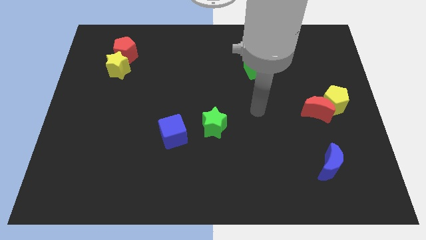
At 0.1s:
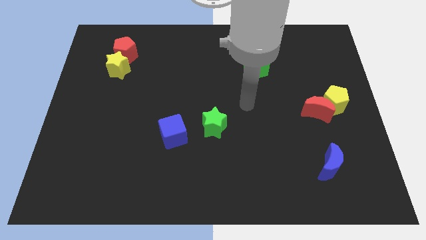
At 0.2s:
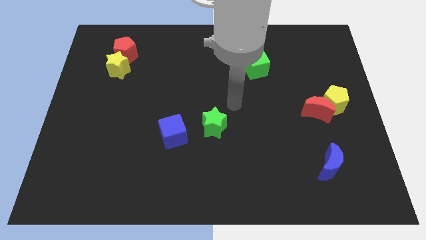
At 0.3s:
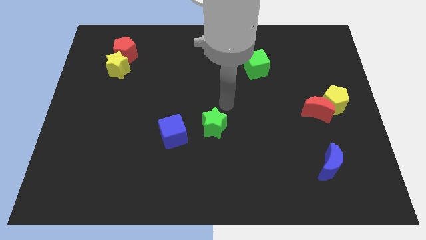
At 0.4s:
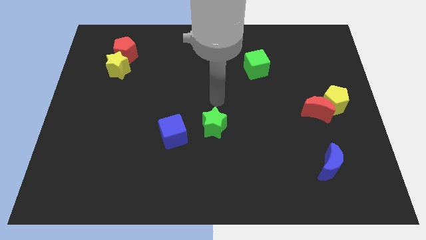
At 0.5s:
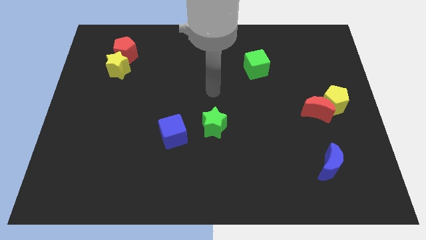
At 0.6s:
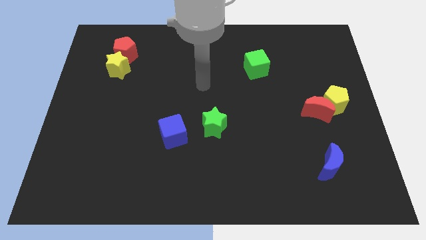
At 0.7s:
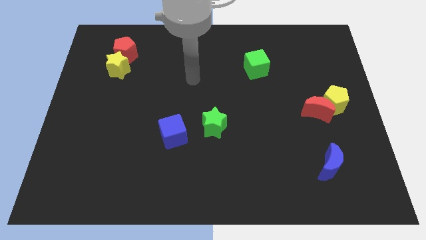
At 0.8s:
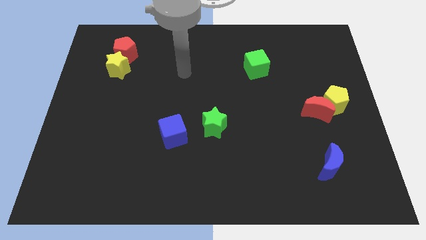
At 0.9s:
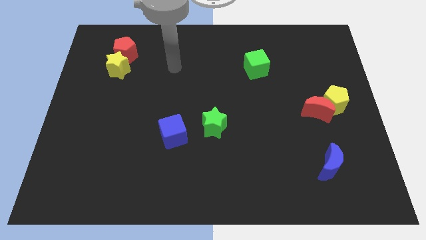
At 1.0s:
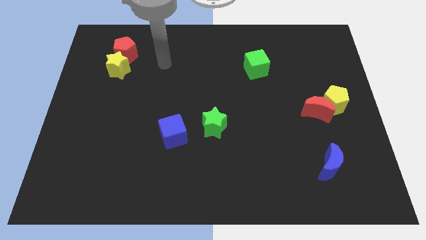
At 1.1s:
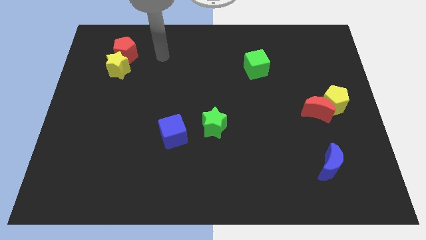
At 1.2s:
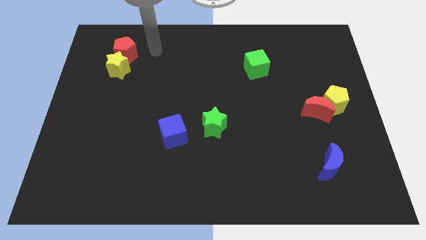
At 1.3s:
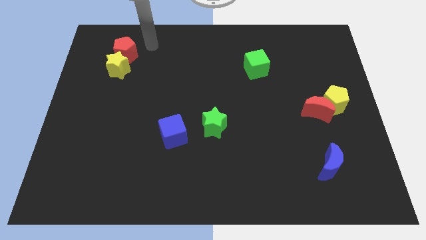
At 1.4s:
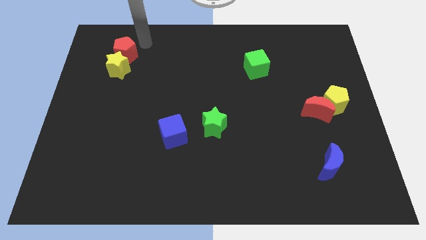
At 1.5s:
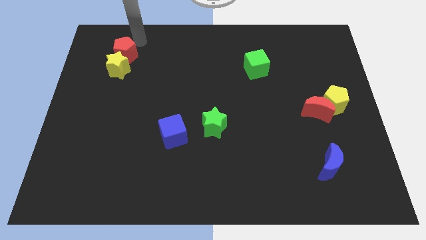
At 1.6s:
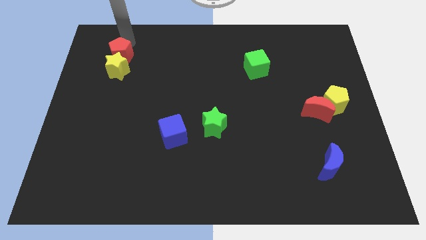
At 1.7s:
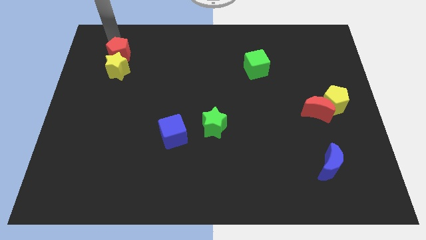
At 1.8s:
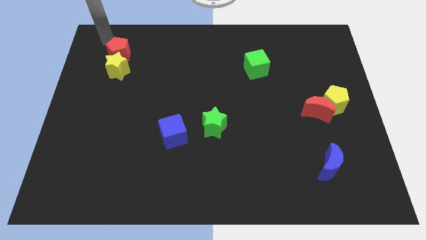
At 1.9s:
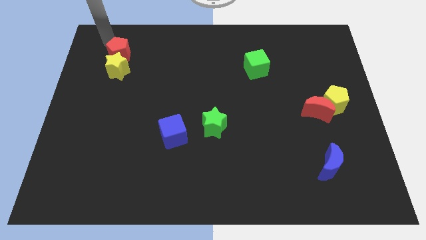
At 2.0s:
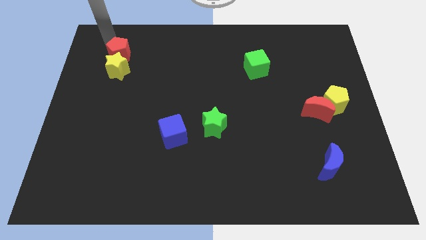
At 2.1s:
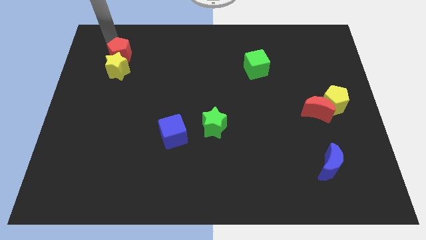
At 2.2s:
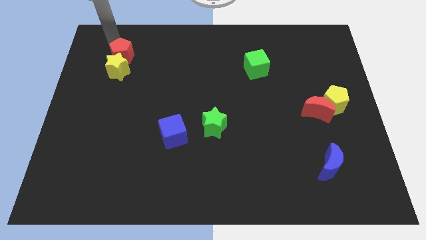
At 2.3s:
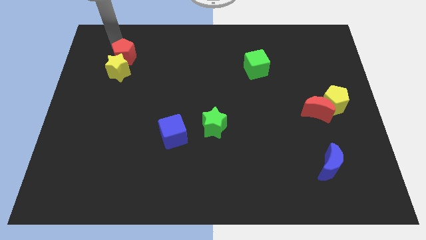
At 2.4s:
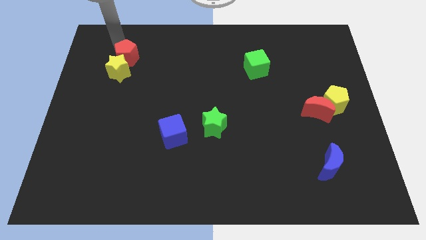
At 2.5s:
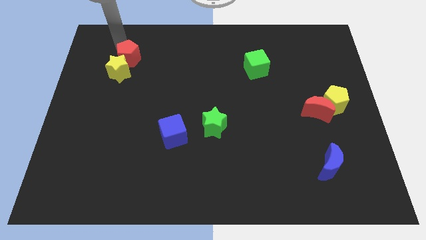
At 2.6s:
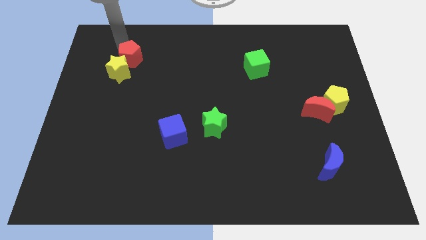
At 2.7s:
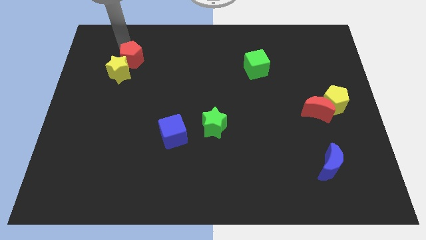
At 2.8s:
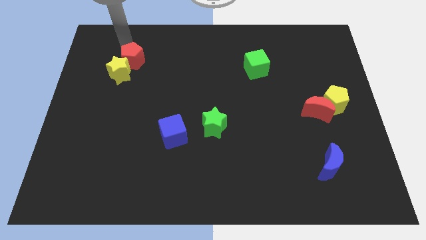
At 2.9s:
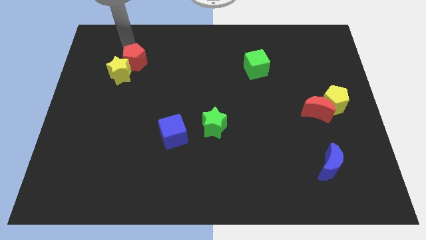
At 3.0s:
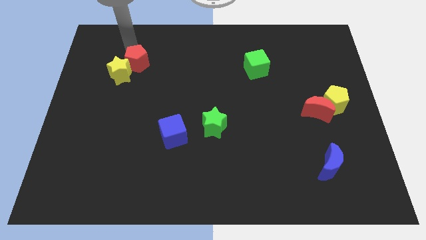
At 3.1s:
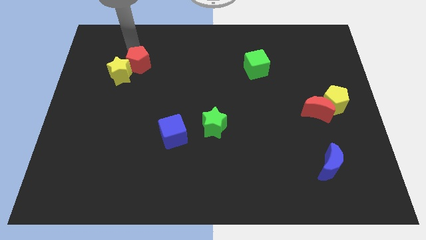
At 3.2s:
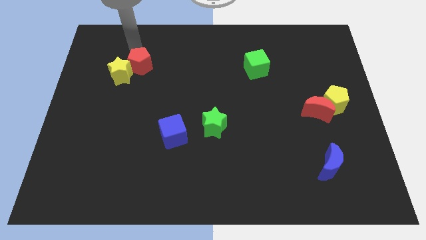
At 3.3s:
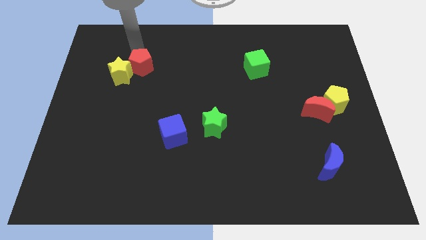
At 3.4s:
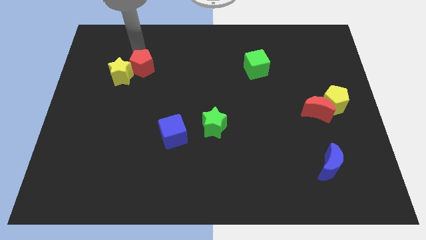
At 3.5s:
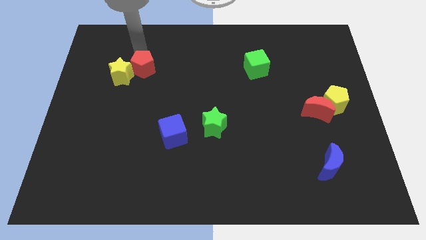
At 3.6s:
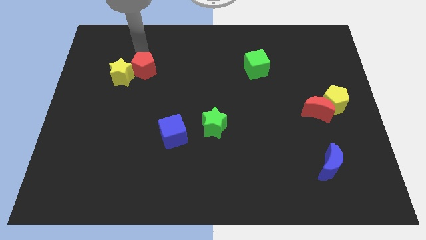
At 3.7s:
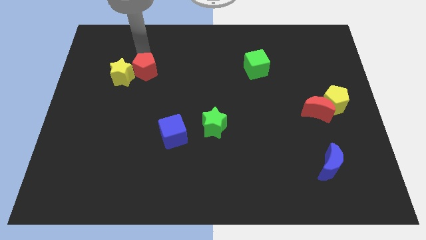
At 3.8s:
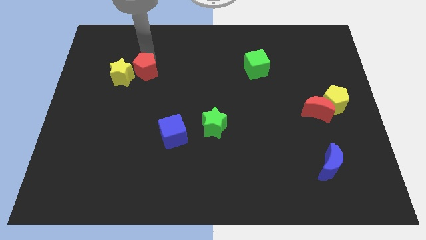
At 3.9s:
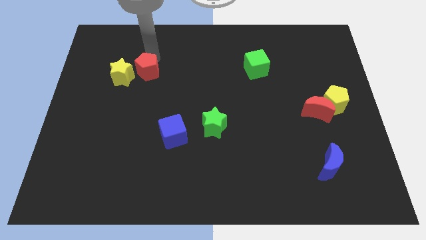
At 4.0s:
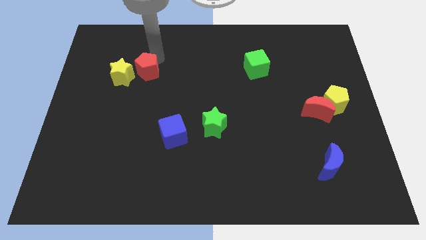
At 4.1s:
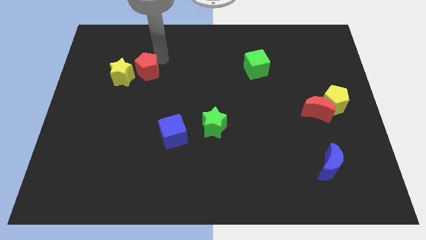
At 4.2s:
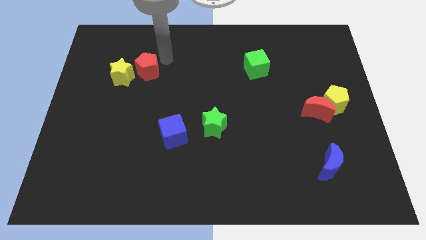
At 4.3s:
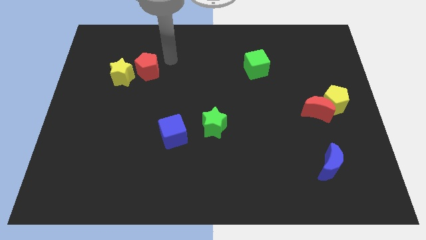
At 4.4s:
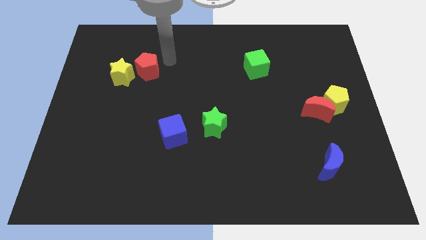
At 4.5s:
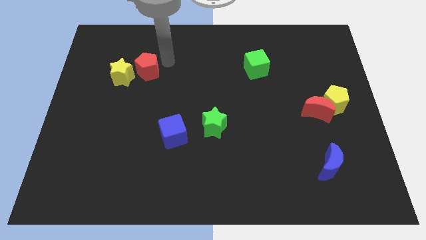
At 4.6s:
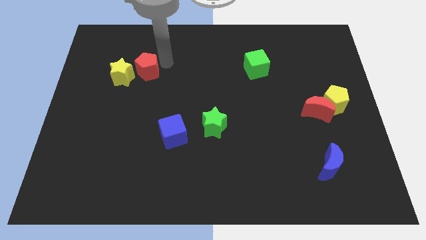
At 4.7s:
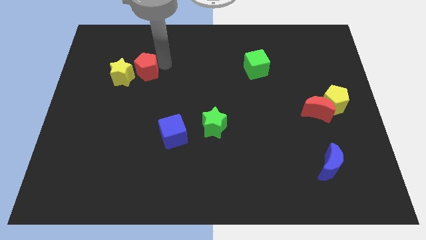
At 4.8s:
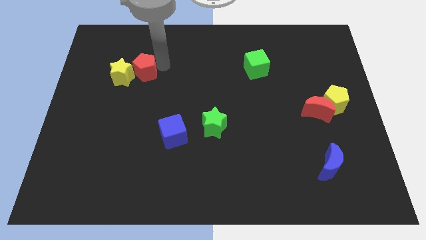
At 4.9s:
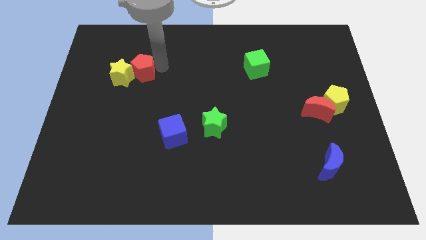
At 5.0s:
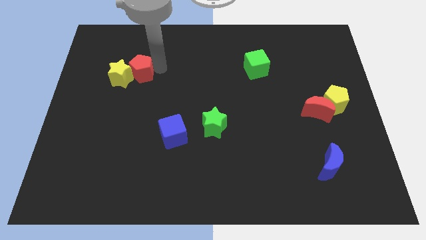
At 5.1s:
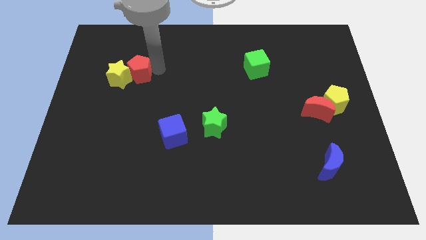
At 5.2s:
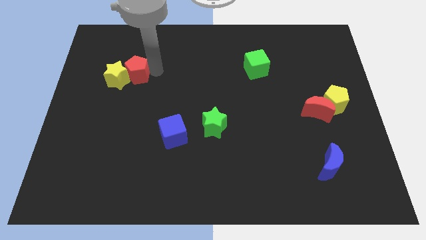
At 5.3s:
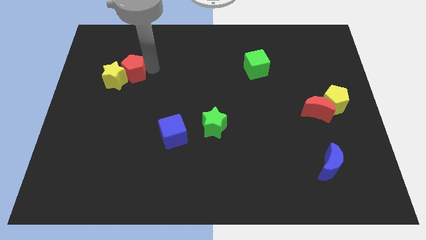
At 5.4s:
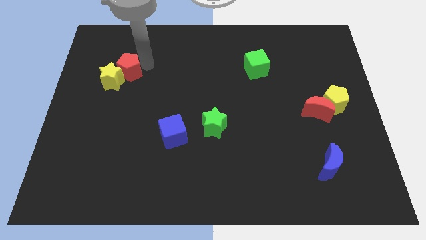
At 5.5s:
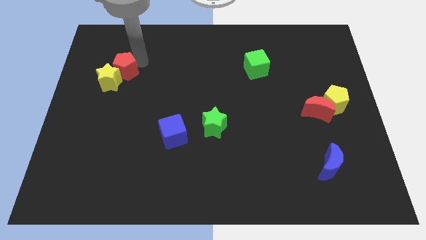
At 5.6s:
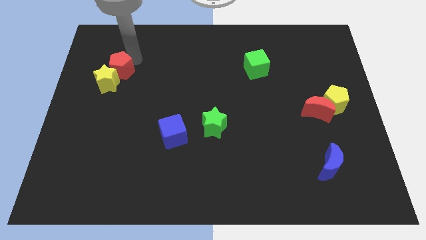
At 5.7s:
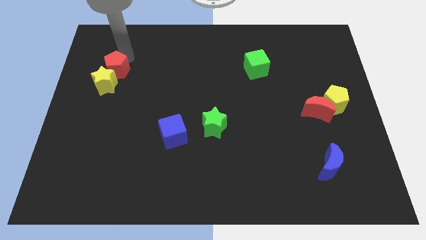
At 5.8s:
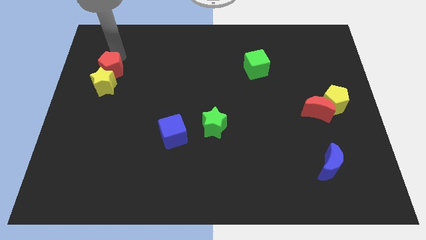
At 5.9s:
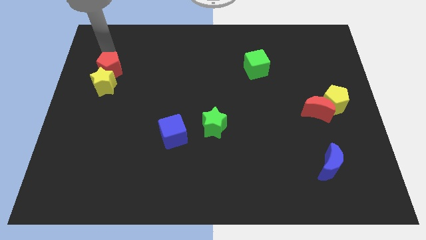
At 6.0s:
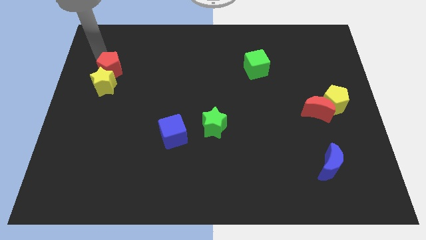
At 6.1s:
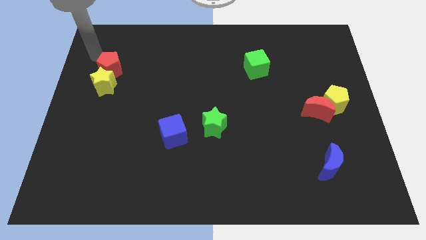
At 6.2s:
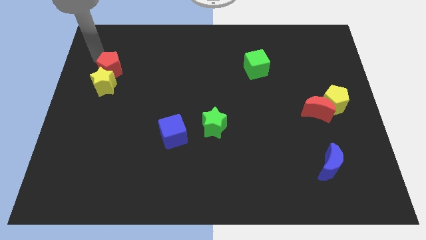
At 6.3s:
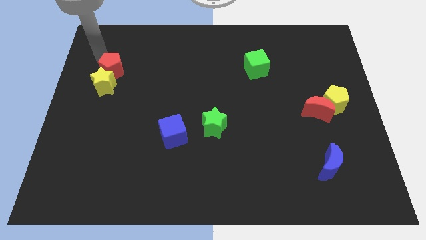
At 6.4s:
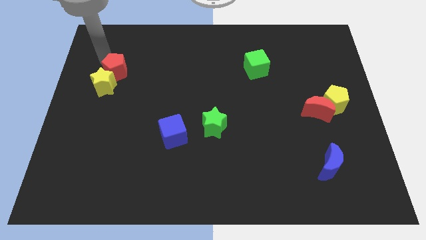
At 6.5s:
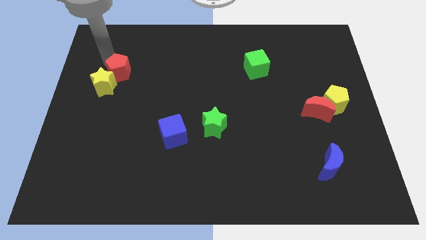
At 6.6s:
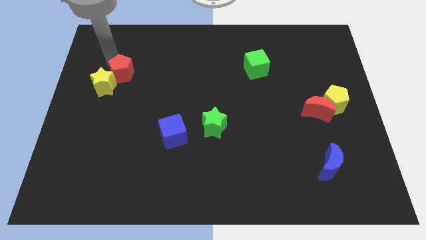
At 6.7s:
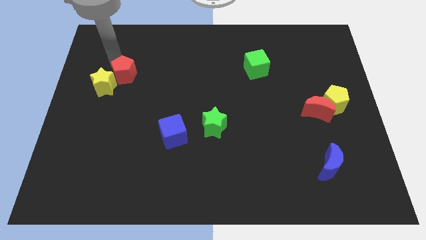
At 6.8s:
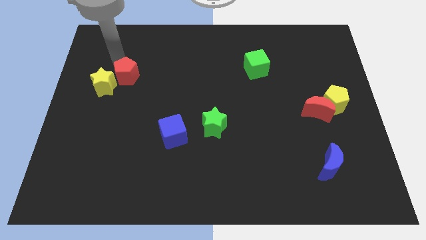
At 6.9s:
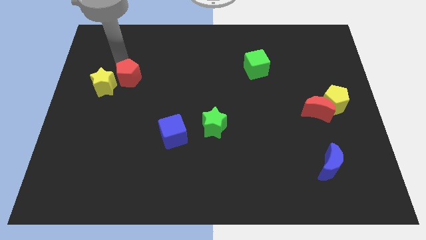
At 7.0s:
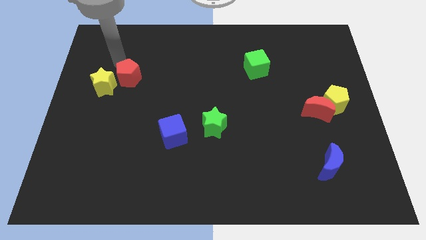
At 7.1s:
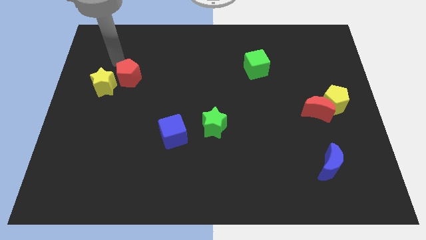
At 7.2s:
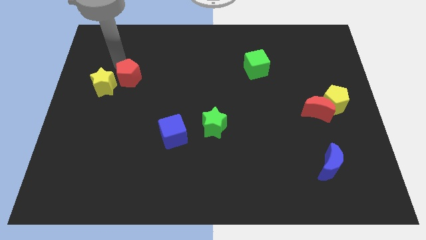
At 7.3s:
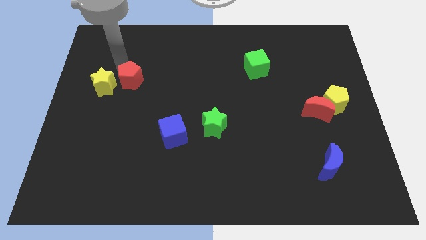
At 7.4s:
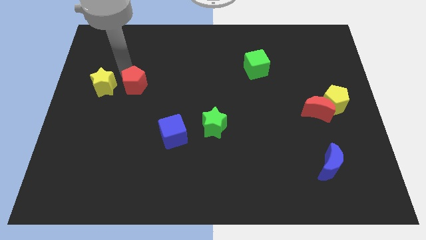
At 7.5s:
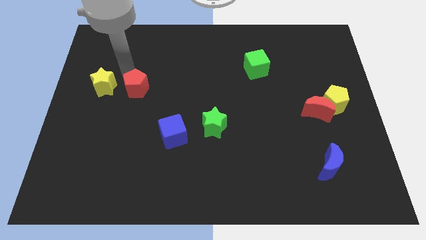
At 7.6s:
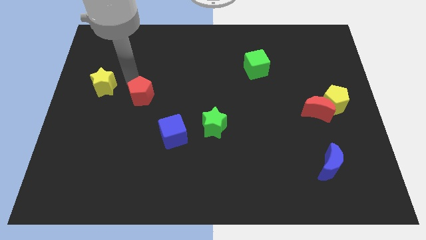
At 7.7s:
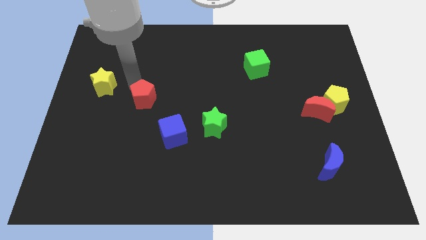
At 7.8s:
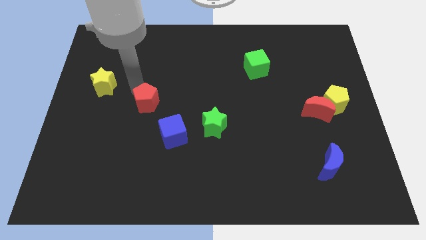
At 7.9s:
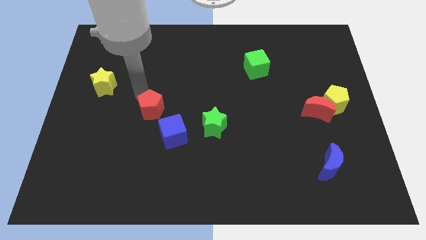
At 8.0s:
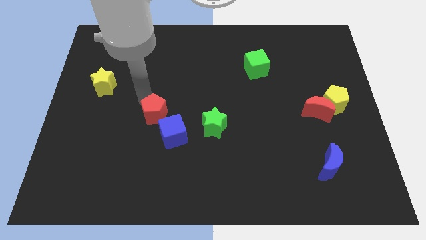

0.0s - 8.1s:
push the red pentagon left of the green star
